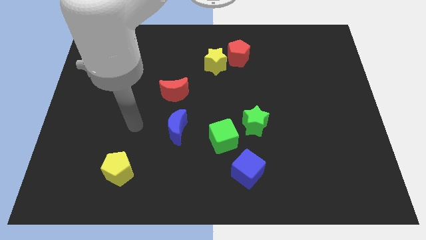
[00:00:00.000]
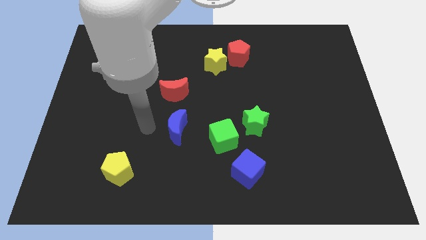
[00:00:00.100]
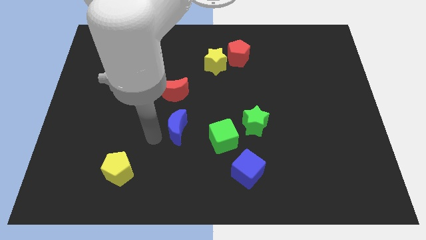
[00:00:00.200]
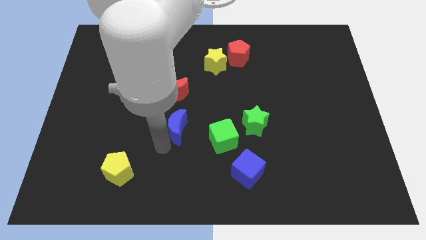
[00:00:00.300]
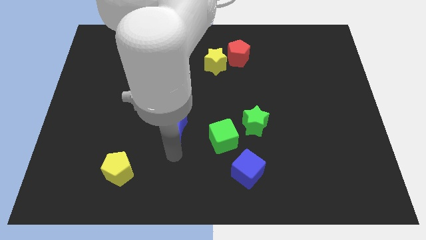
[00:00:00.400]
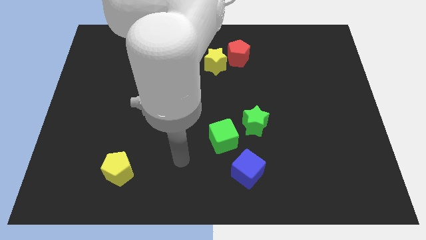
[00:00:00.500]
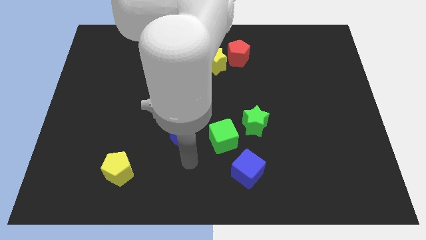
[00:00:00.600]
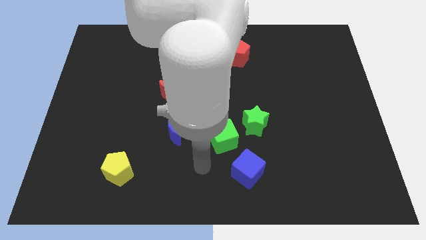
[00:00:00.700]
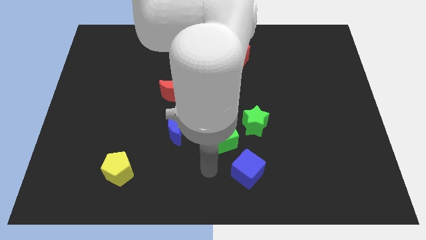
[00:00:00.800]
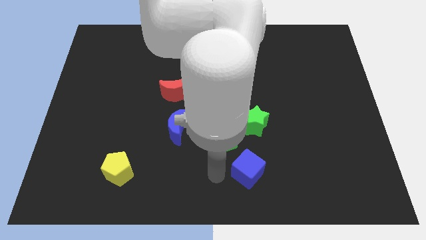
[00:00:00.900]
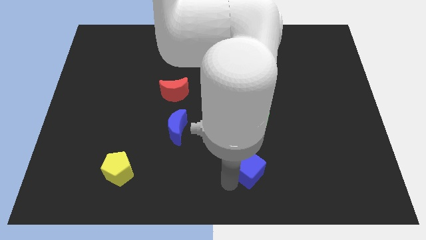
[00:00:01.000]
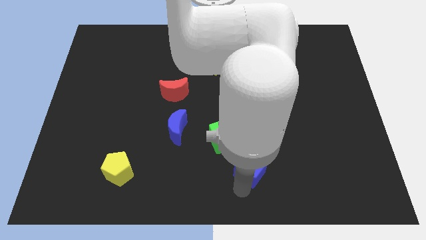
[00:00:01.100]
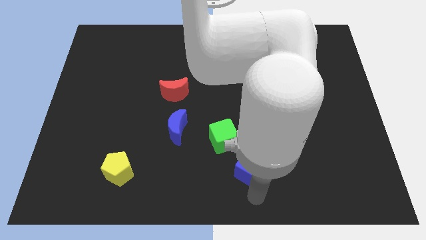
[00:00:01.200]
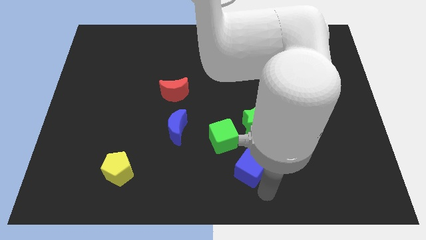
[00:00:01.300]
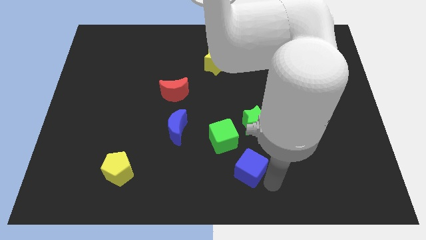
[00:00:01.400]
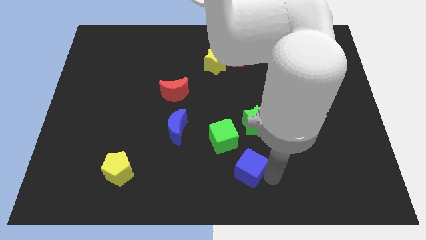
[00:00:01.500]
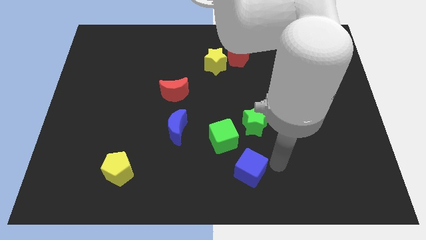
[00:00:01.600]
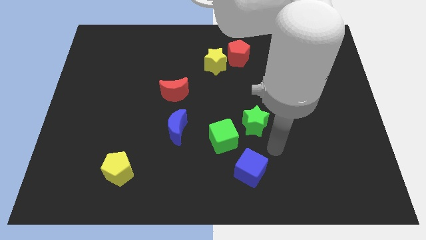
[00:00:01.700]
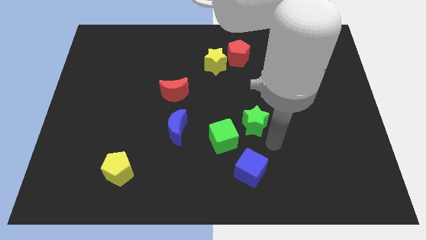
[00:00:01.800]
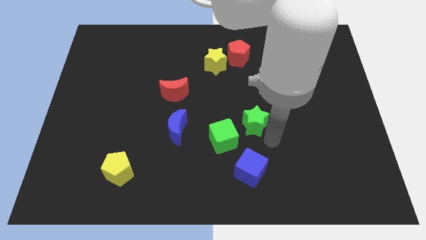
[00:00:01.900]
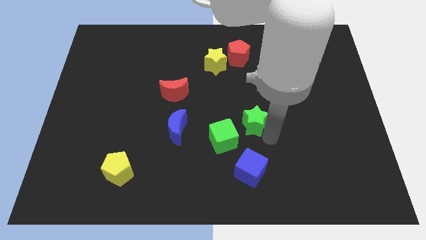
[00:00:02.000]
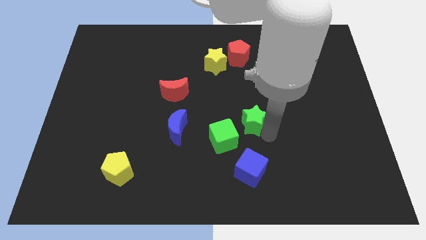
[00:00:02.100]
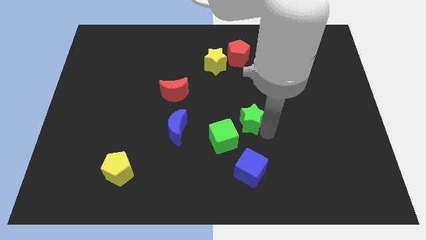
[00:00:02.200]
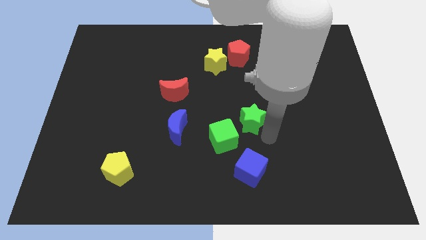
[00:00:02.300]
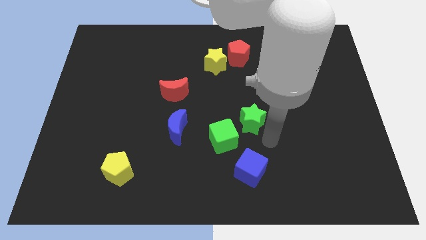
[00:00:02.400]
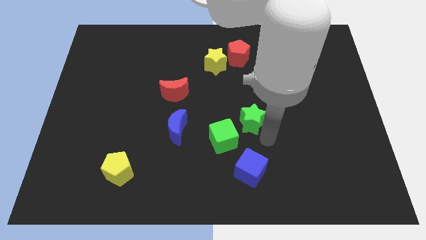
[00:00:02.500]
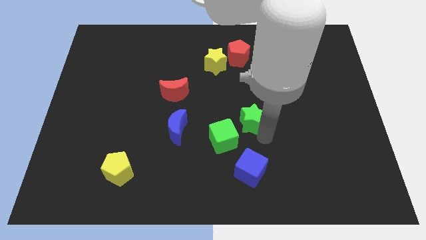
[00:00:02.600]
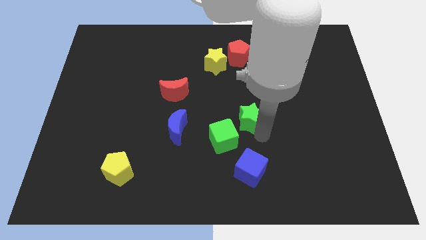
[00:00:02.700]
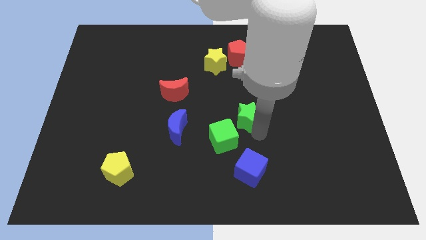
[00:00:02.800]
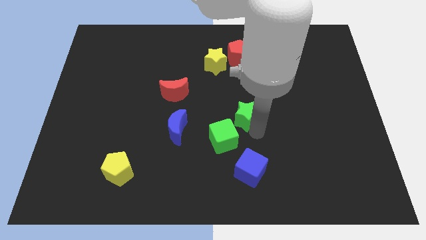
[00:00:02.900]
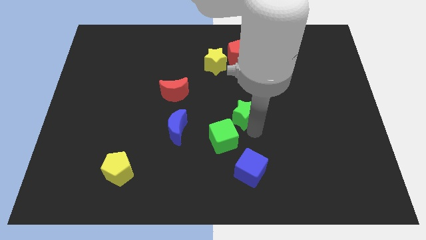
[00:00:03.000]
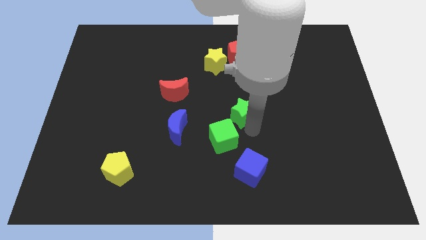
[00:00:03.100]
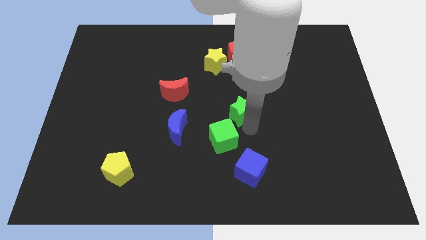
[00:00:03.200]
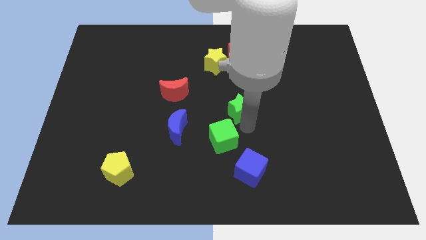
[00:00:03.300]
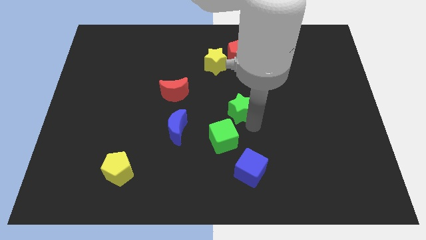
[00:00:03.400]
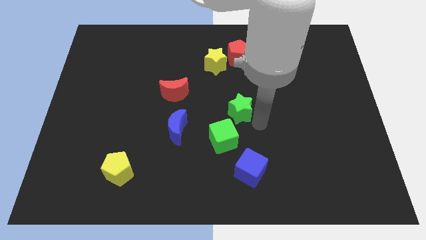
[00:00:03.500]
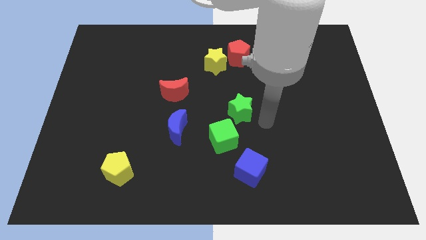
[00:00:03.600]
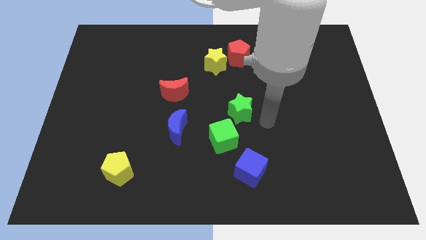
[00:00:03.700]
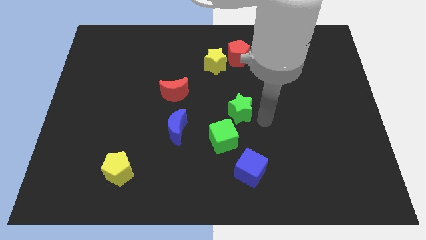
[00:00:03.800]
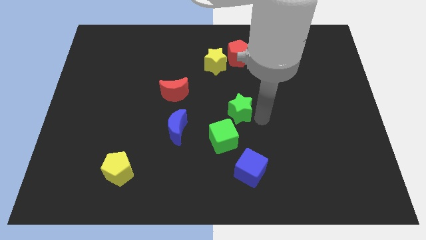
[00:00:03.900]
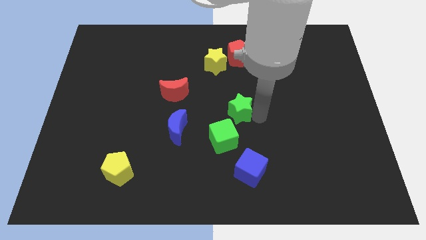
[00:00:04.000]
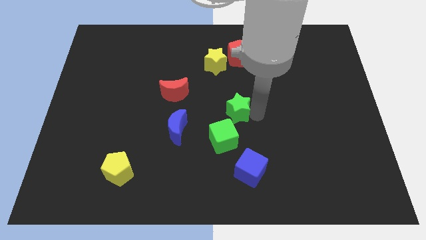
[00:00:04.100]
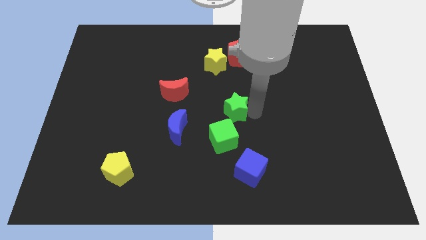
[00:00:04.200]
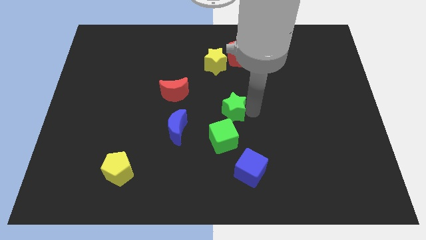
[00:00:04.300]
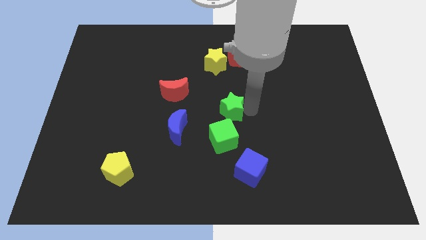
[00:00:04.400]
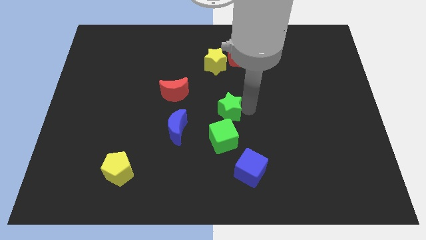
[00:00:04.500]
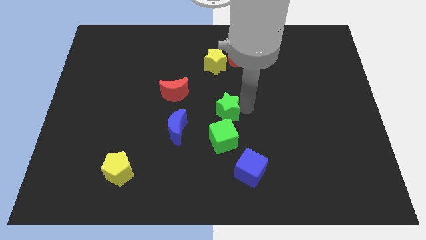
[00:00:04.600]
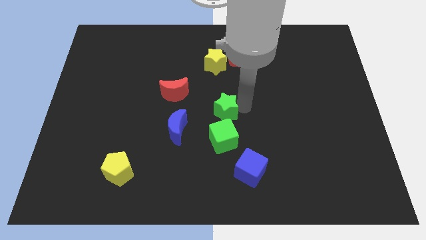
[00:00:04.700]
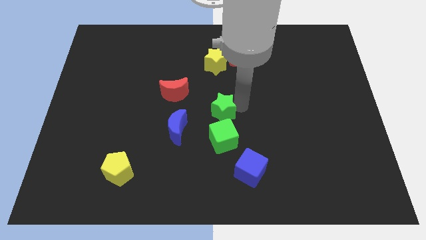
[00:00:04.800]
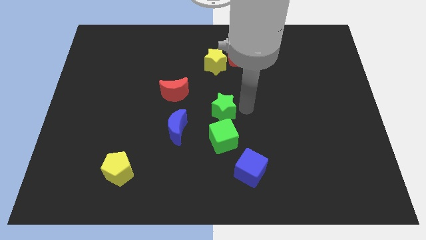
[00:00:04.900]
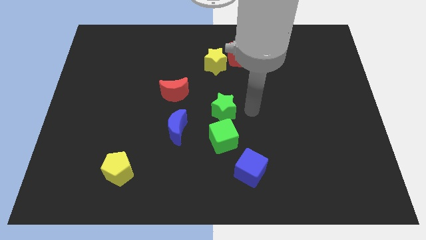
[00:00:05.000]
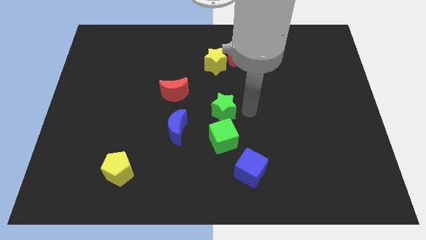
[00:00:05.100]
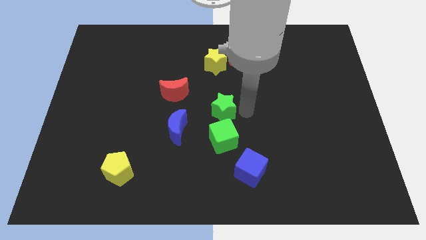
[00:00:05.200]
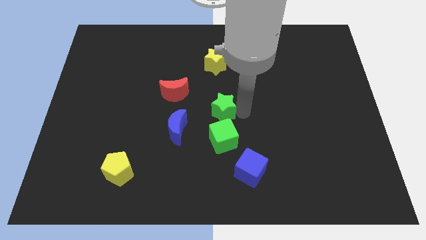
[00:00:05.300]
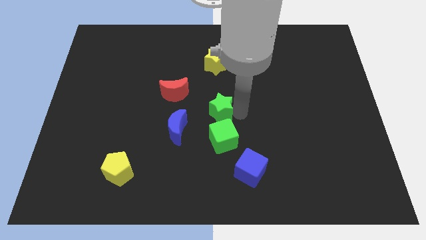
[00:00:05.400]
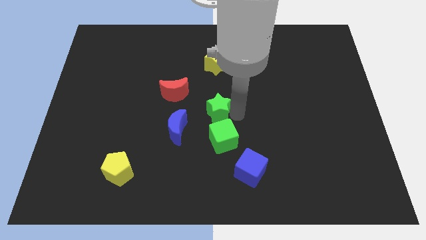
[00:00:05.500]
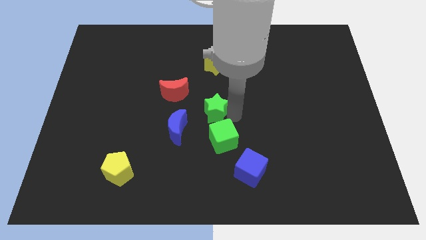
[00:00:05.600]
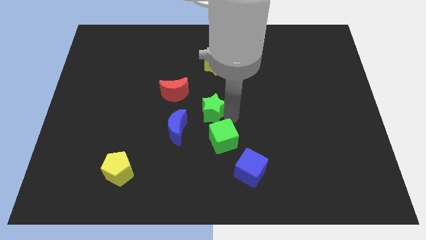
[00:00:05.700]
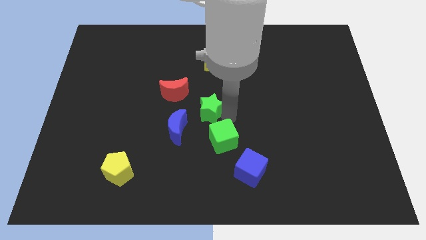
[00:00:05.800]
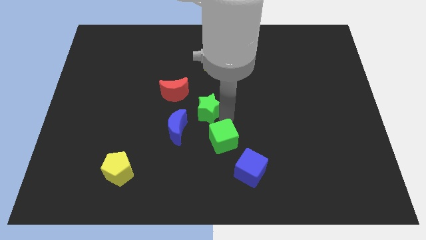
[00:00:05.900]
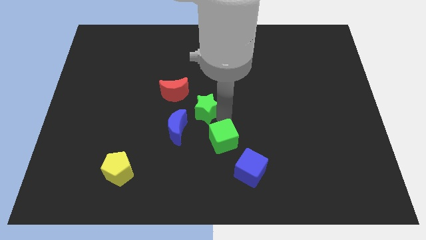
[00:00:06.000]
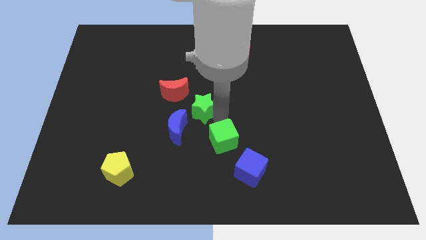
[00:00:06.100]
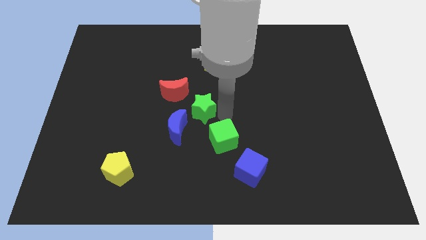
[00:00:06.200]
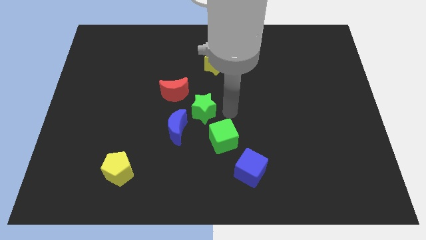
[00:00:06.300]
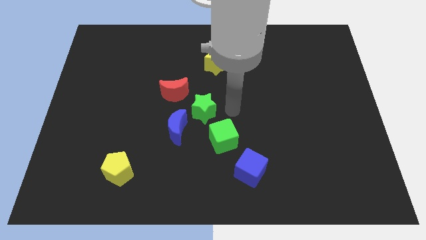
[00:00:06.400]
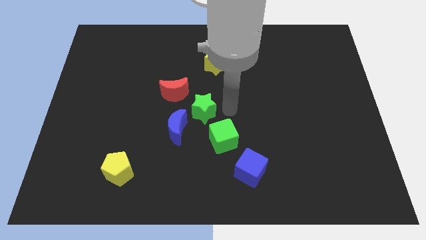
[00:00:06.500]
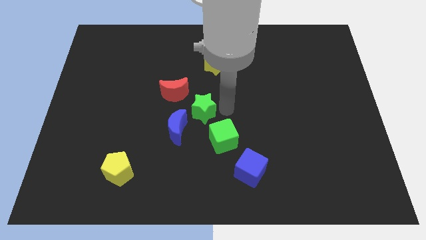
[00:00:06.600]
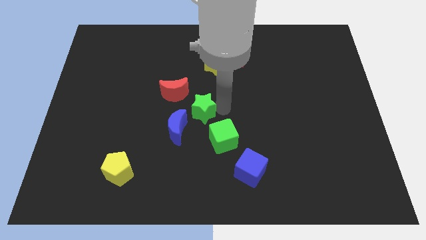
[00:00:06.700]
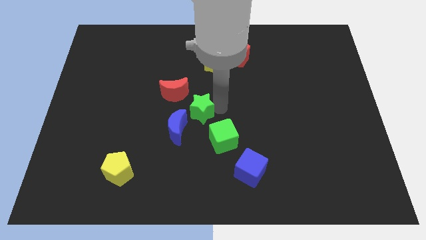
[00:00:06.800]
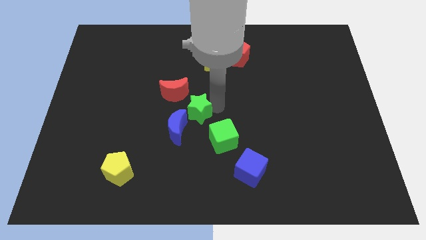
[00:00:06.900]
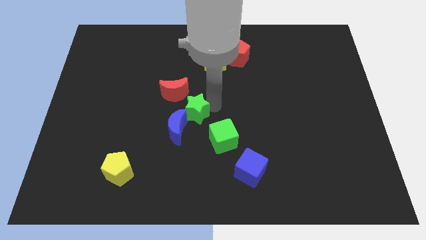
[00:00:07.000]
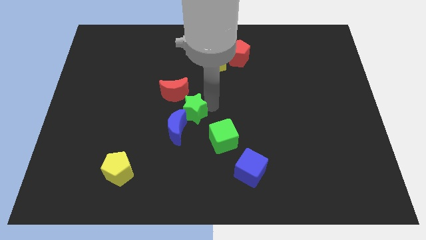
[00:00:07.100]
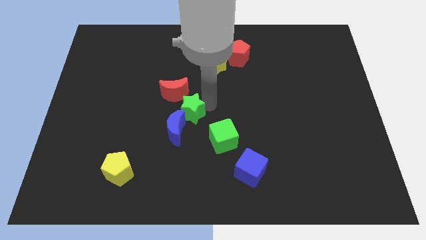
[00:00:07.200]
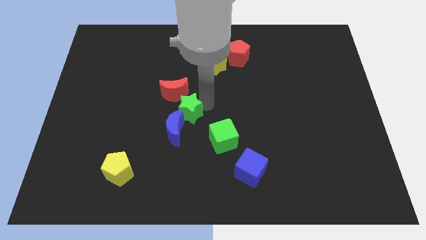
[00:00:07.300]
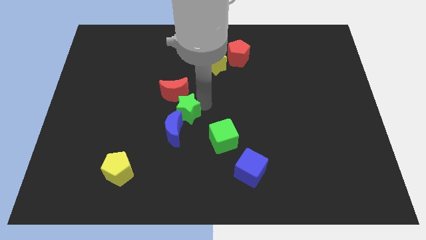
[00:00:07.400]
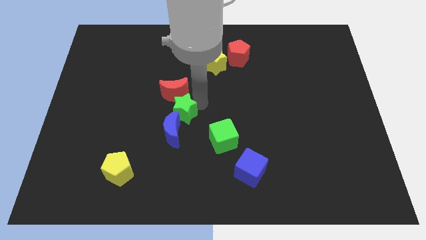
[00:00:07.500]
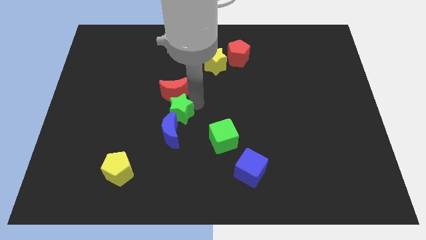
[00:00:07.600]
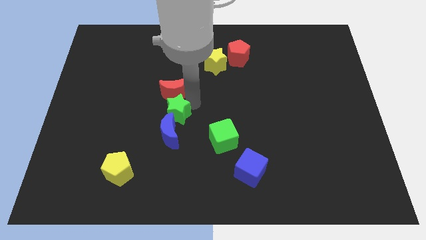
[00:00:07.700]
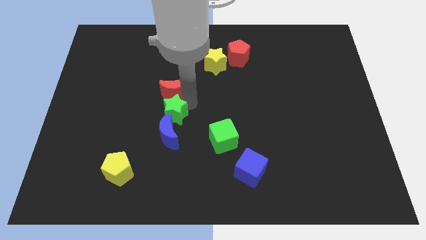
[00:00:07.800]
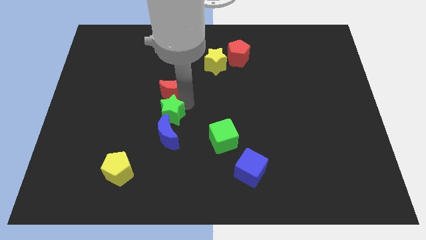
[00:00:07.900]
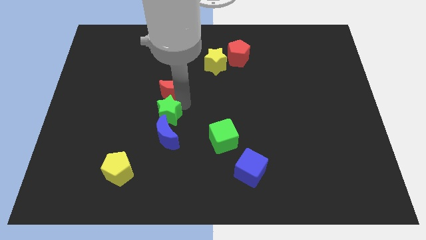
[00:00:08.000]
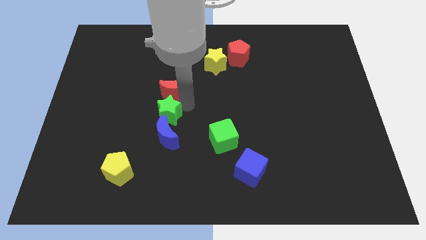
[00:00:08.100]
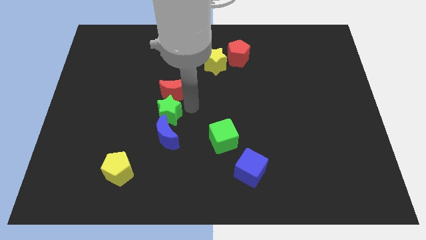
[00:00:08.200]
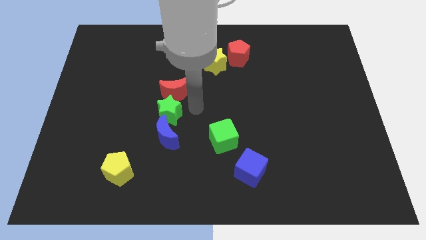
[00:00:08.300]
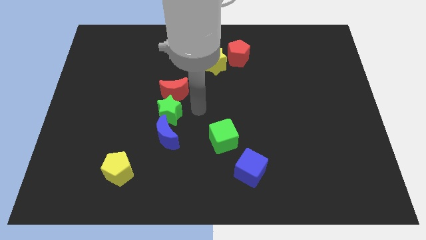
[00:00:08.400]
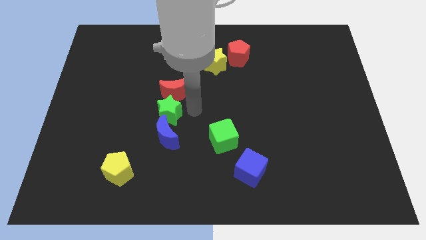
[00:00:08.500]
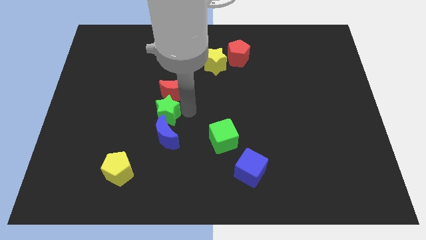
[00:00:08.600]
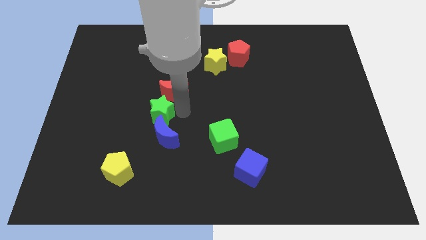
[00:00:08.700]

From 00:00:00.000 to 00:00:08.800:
push the green star to the left
